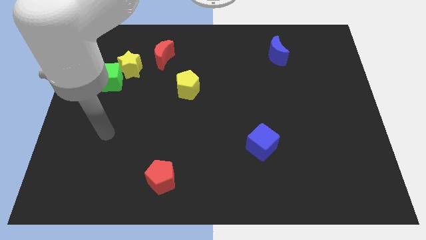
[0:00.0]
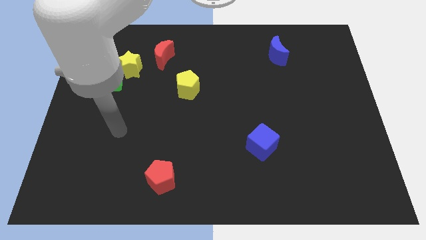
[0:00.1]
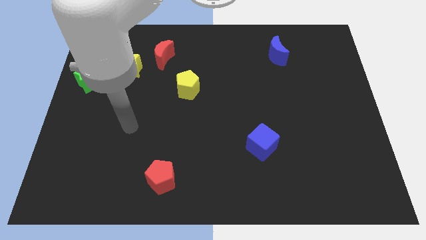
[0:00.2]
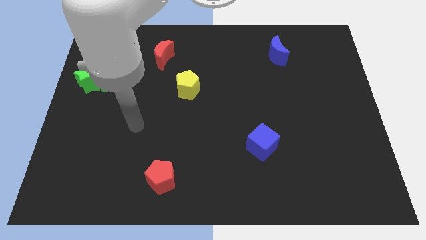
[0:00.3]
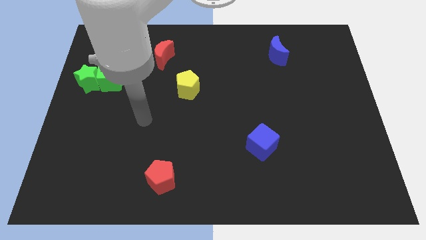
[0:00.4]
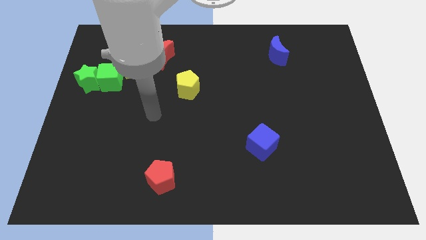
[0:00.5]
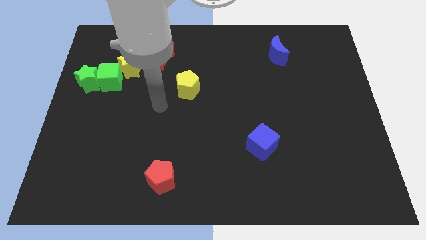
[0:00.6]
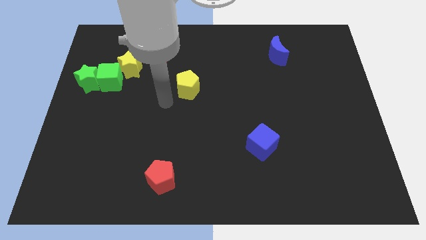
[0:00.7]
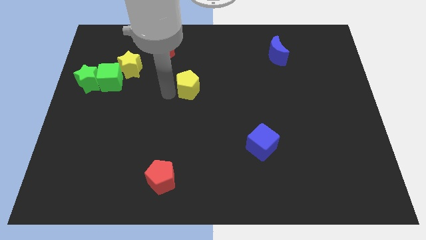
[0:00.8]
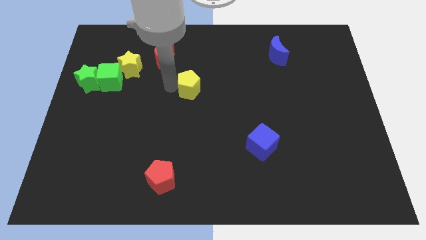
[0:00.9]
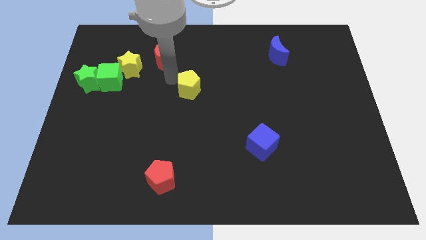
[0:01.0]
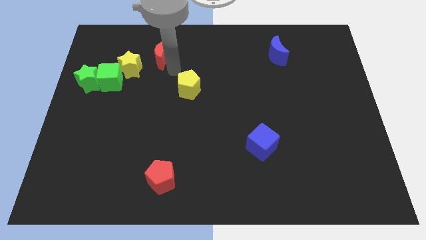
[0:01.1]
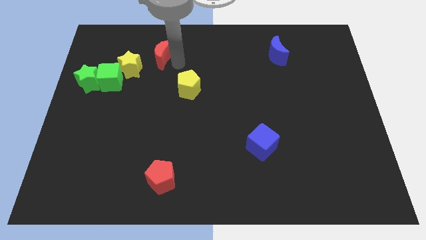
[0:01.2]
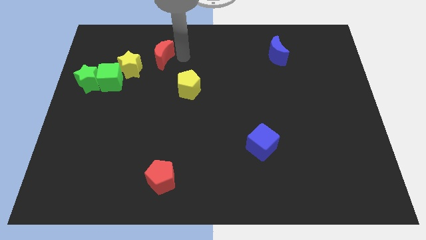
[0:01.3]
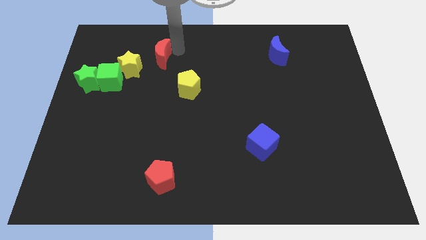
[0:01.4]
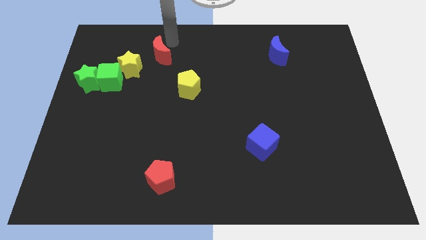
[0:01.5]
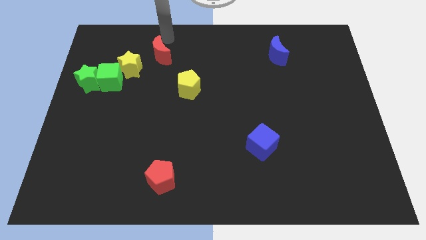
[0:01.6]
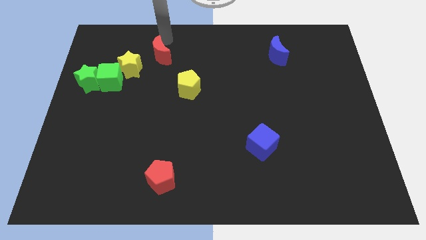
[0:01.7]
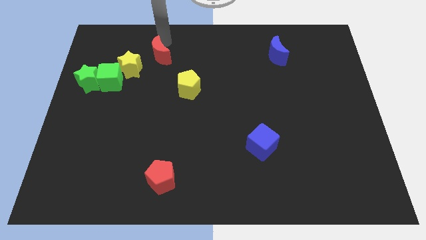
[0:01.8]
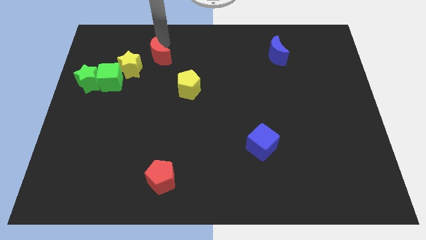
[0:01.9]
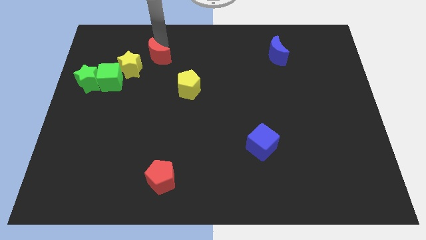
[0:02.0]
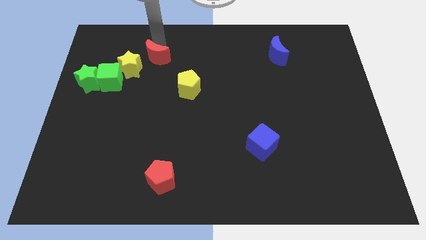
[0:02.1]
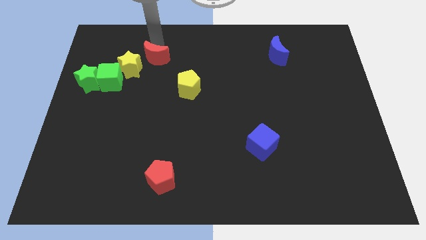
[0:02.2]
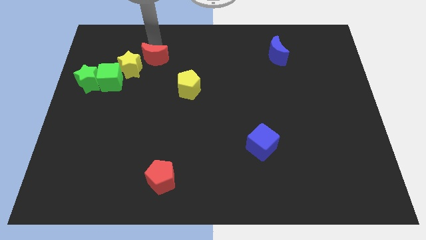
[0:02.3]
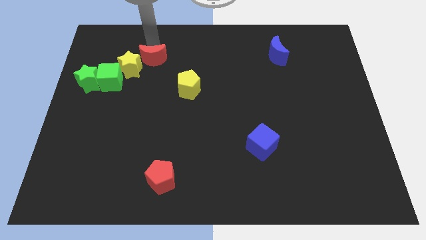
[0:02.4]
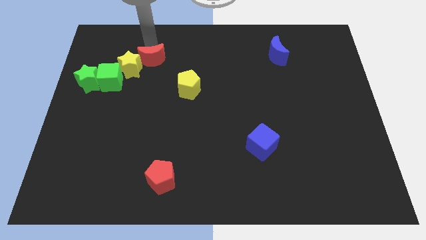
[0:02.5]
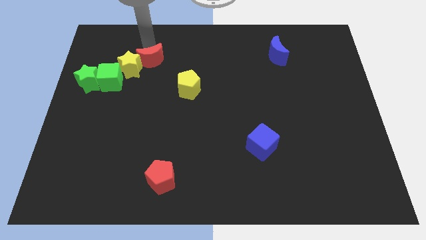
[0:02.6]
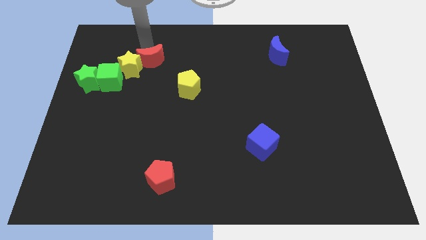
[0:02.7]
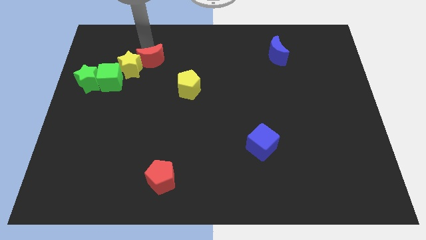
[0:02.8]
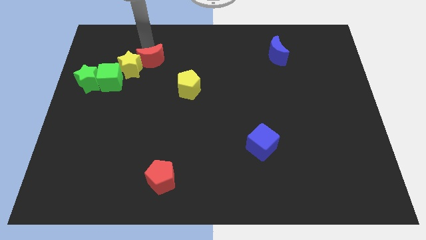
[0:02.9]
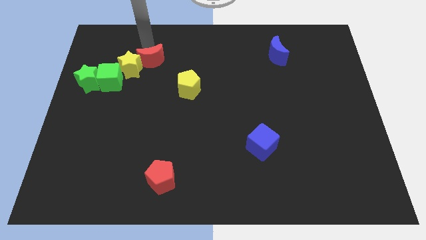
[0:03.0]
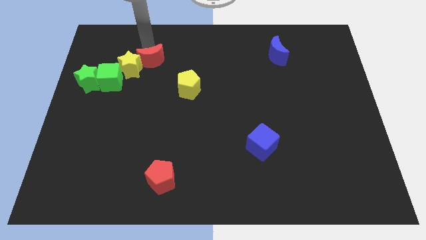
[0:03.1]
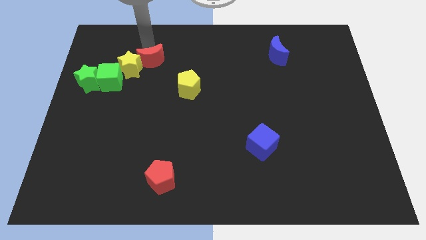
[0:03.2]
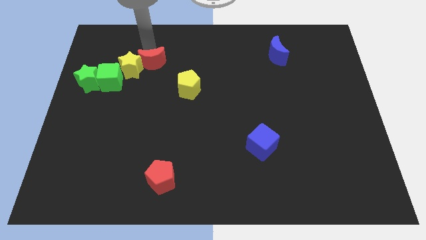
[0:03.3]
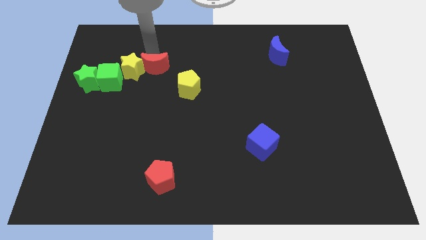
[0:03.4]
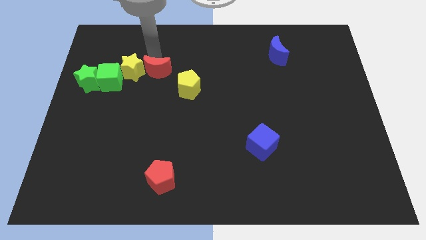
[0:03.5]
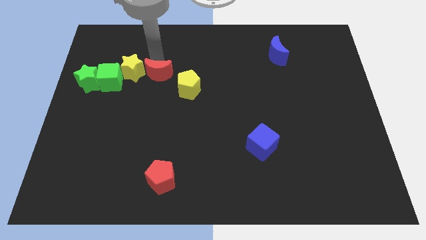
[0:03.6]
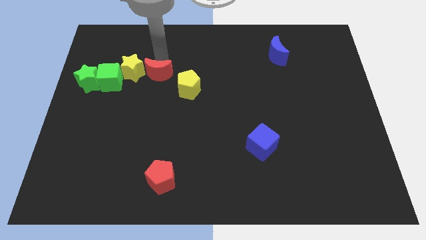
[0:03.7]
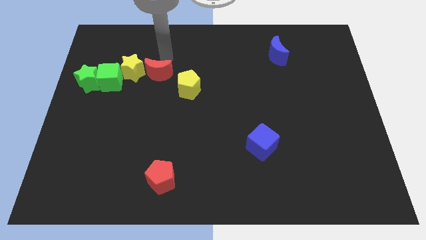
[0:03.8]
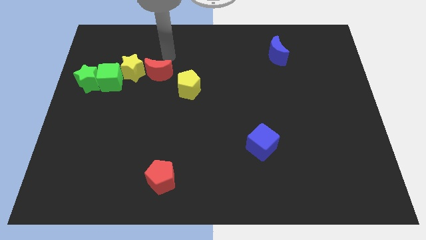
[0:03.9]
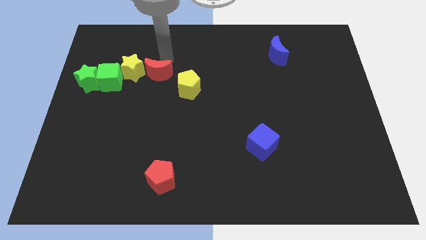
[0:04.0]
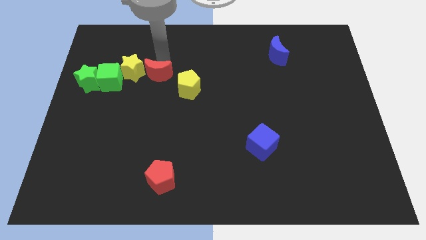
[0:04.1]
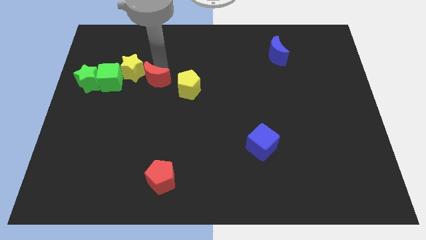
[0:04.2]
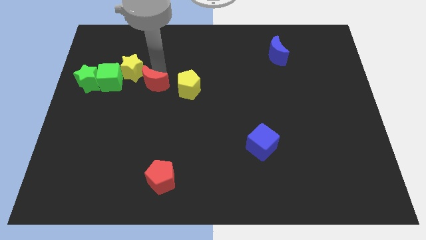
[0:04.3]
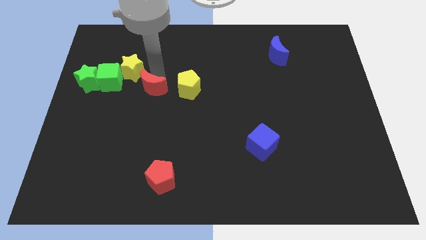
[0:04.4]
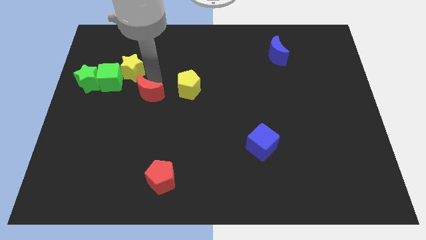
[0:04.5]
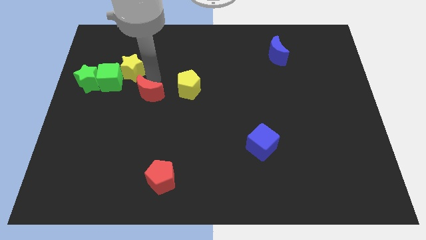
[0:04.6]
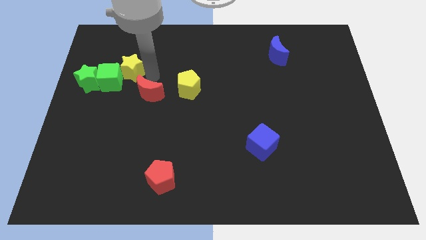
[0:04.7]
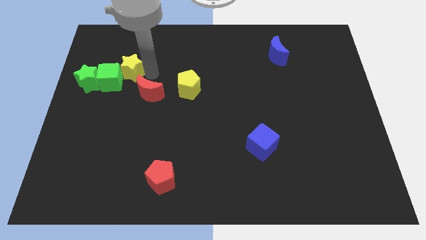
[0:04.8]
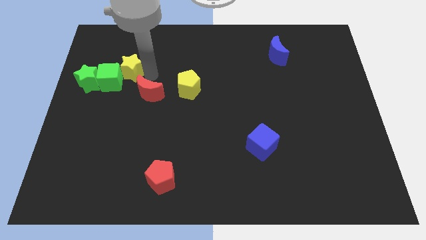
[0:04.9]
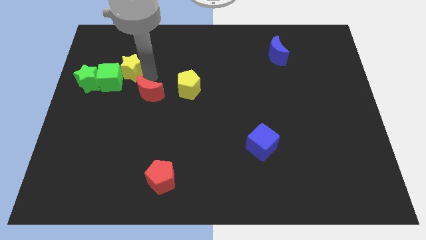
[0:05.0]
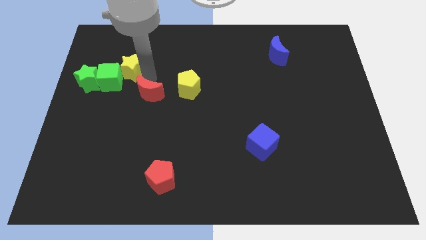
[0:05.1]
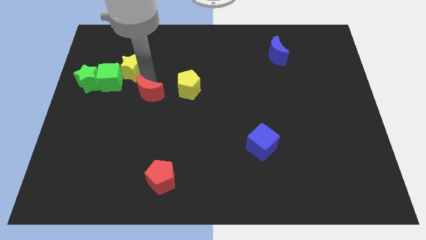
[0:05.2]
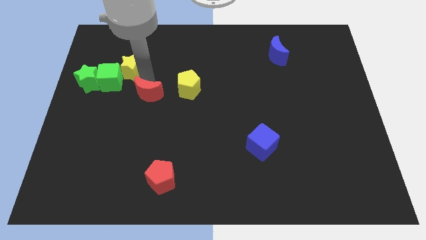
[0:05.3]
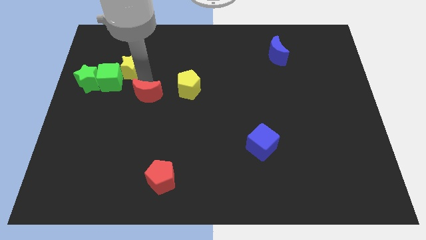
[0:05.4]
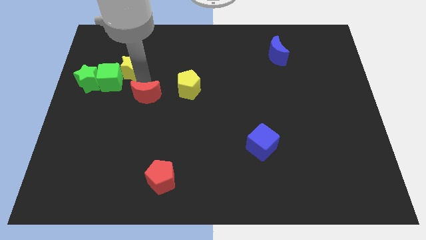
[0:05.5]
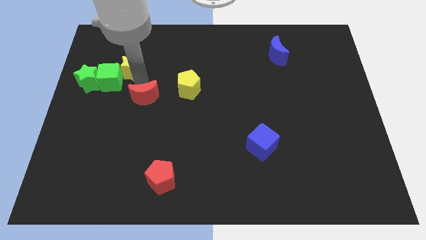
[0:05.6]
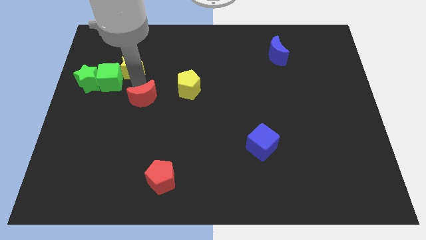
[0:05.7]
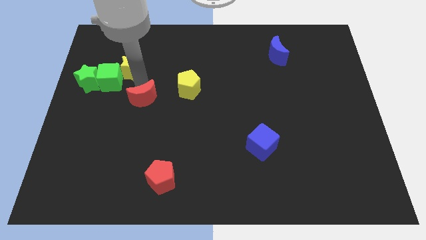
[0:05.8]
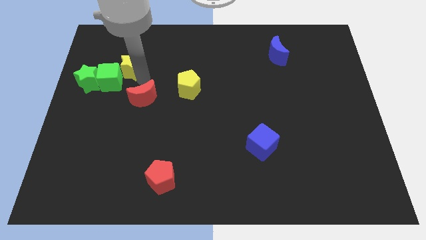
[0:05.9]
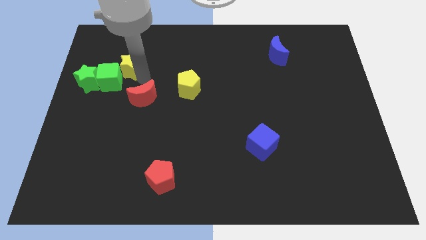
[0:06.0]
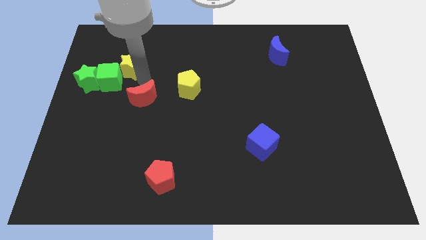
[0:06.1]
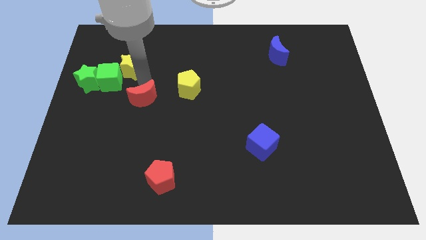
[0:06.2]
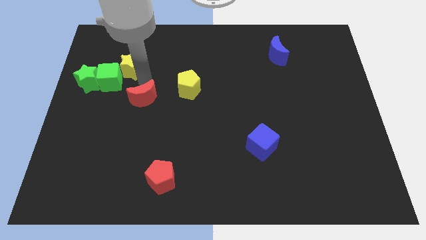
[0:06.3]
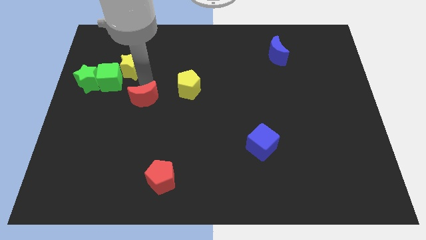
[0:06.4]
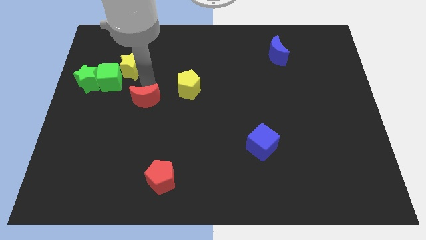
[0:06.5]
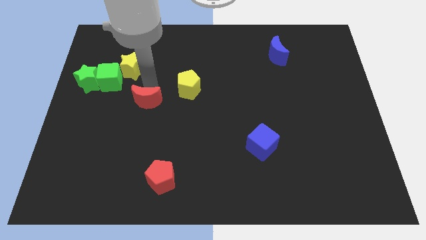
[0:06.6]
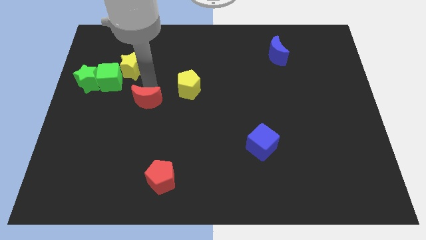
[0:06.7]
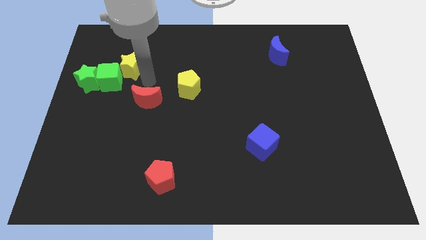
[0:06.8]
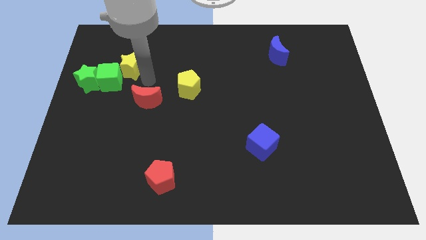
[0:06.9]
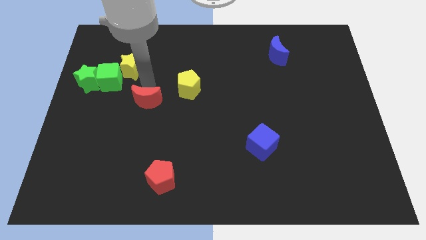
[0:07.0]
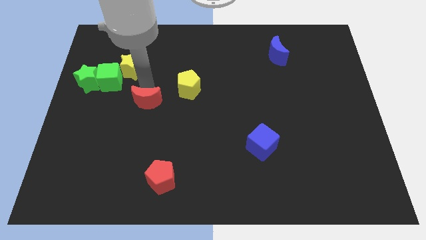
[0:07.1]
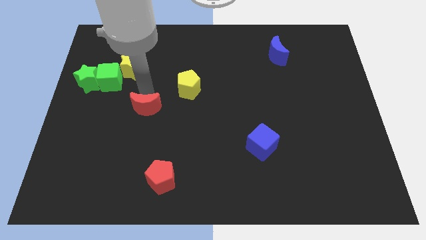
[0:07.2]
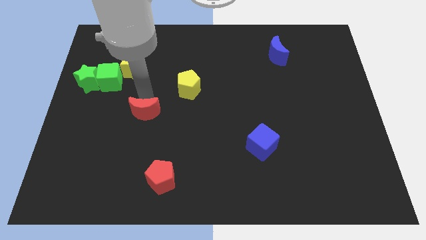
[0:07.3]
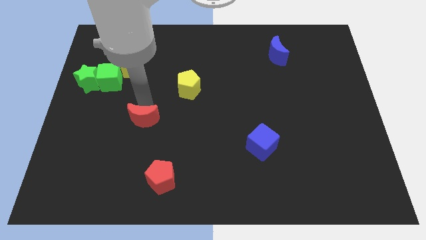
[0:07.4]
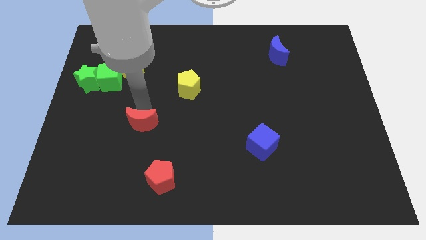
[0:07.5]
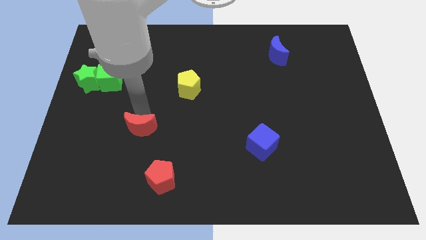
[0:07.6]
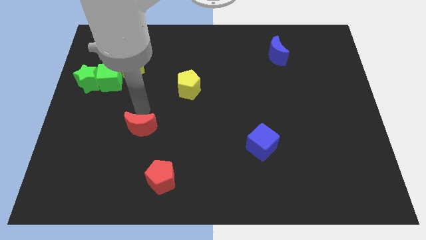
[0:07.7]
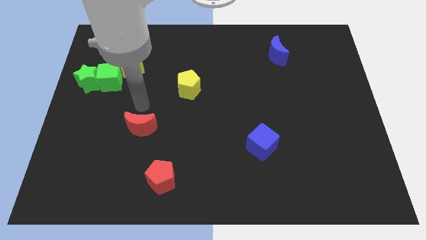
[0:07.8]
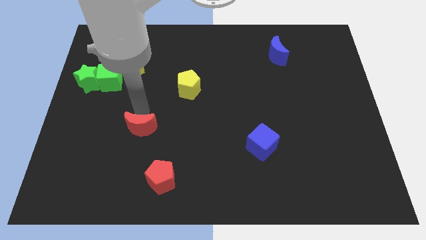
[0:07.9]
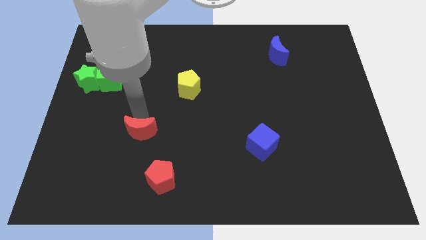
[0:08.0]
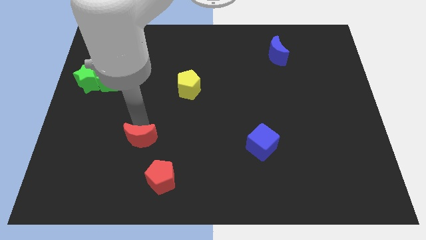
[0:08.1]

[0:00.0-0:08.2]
put the red moon diagonally up and to the left of the red pentagon
